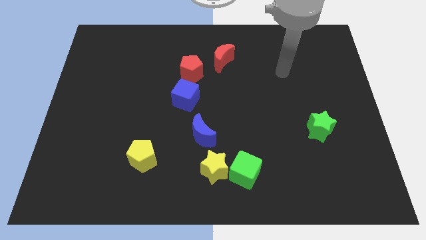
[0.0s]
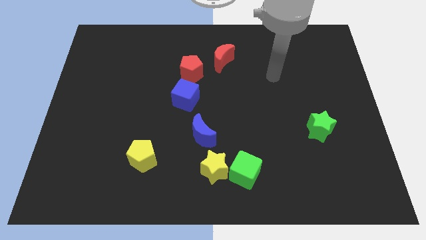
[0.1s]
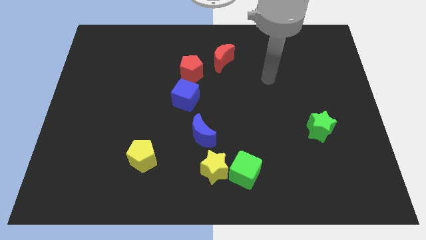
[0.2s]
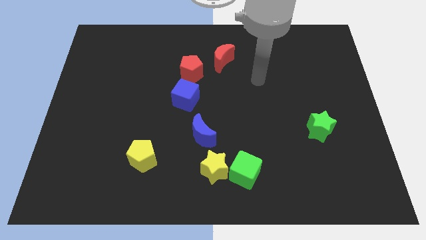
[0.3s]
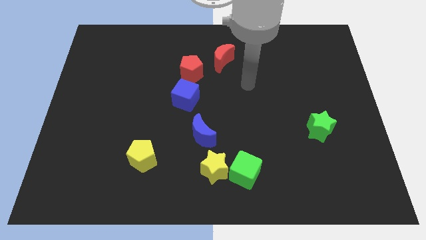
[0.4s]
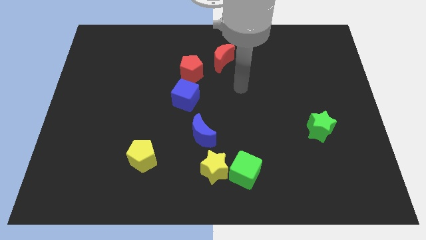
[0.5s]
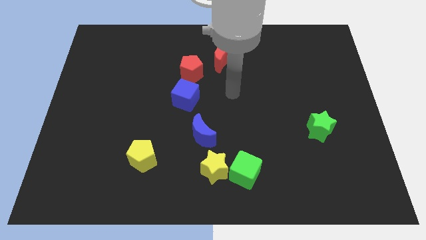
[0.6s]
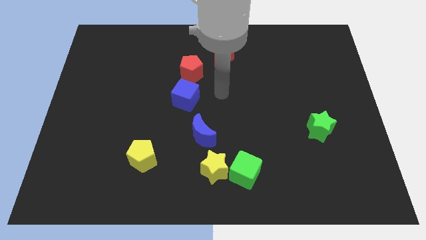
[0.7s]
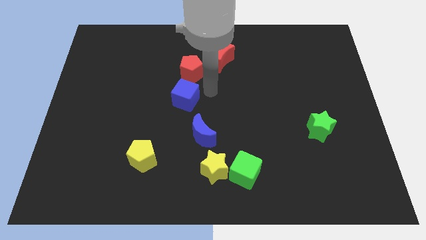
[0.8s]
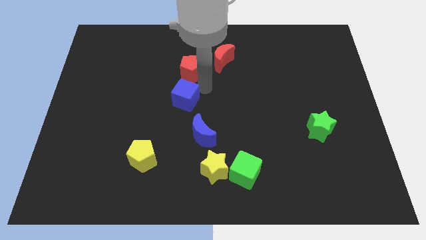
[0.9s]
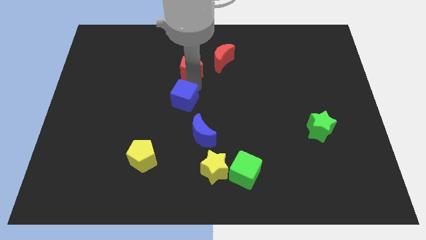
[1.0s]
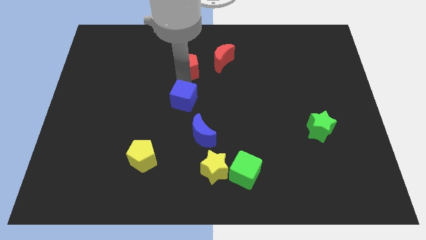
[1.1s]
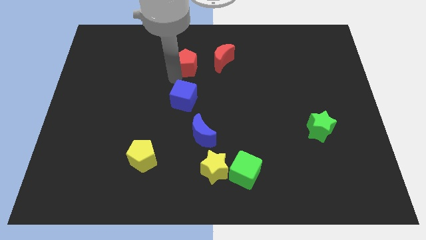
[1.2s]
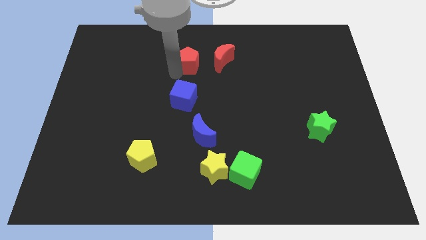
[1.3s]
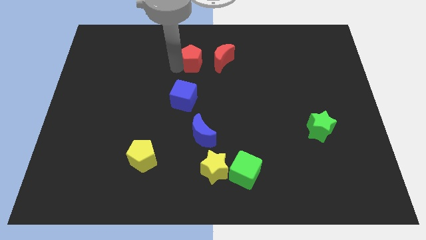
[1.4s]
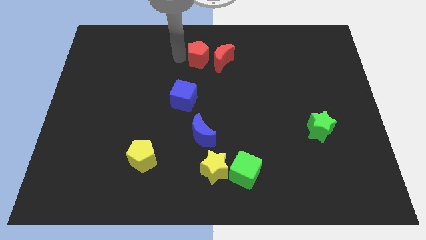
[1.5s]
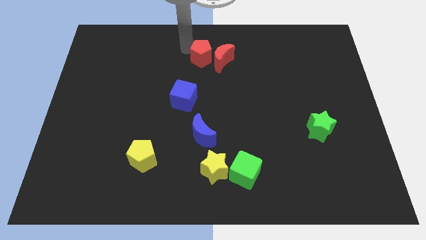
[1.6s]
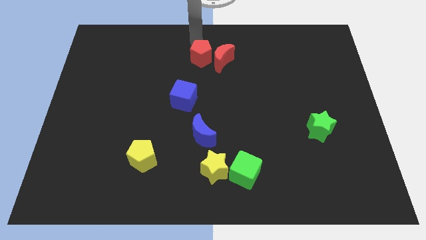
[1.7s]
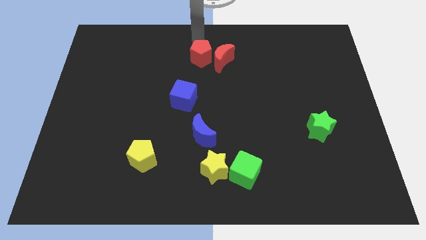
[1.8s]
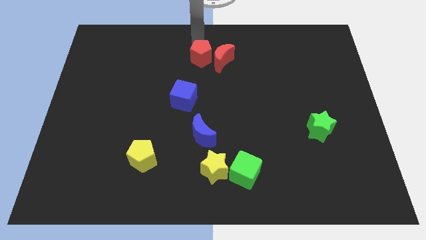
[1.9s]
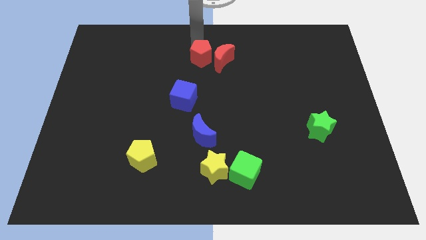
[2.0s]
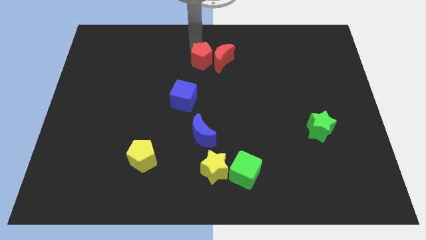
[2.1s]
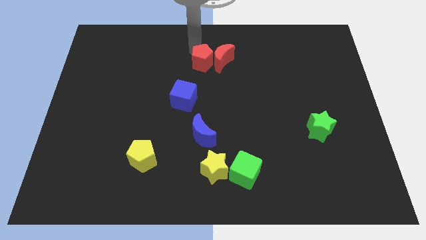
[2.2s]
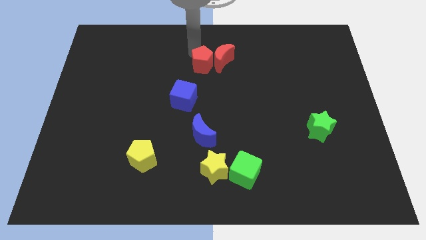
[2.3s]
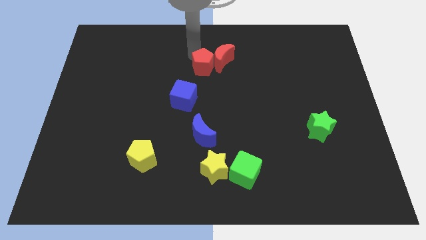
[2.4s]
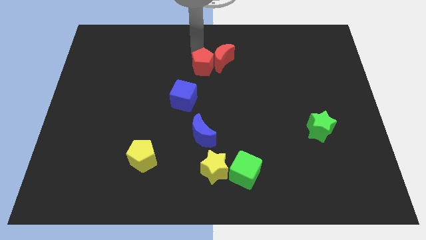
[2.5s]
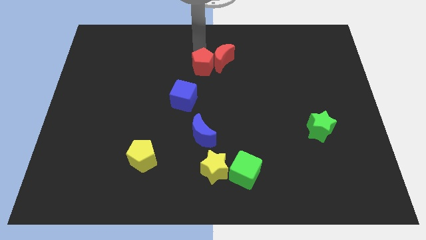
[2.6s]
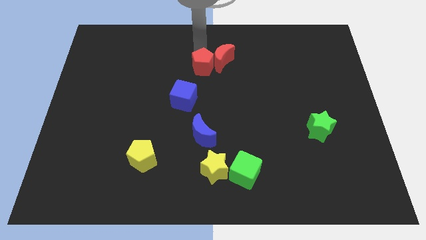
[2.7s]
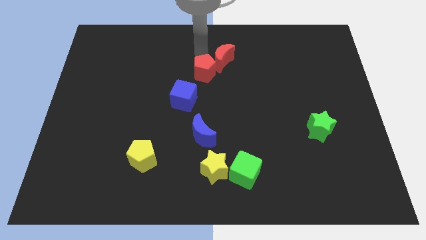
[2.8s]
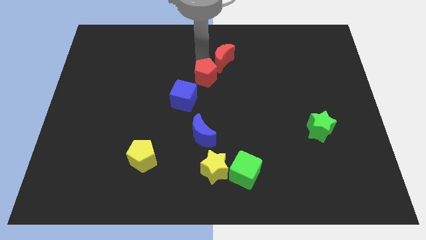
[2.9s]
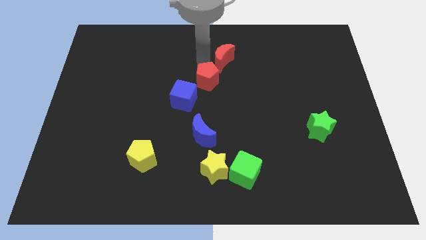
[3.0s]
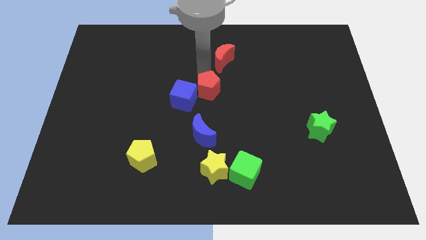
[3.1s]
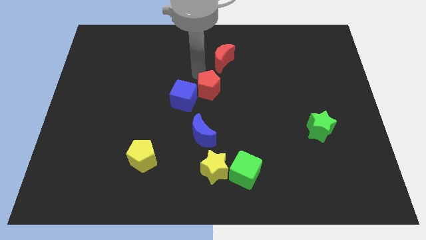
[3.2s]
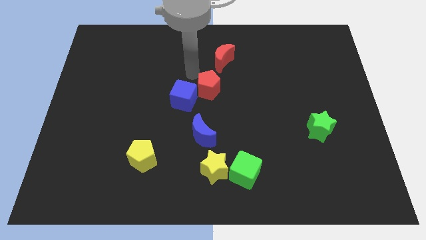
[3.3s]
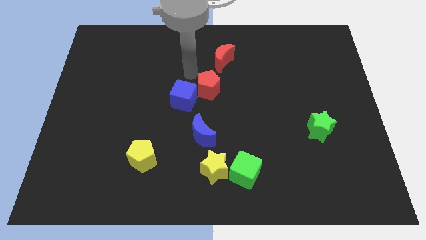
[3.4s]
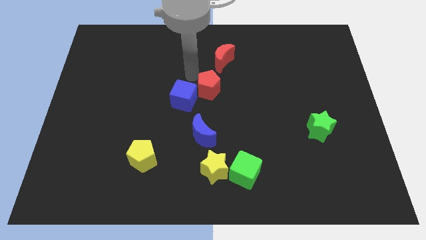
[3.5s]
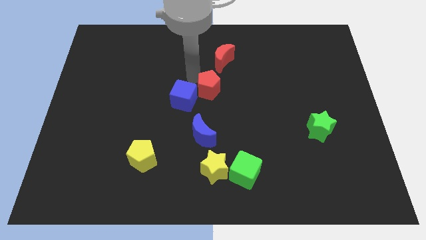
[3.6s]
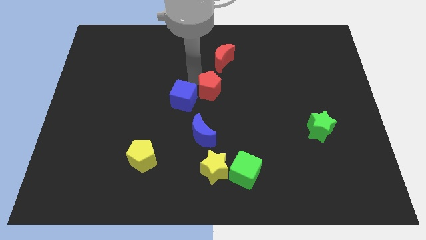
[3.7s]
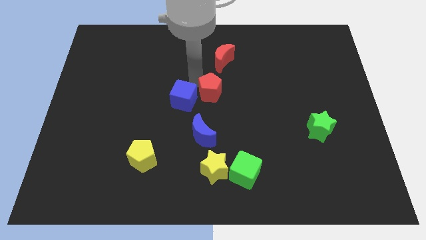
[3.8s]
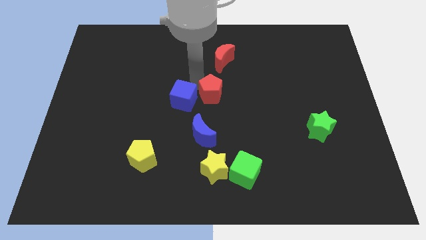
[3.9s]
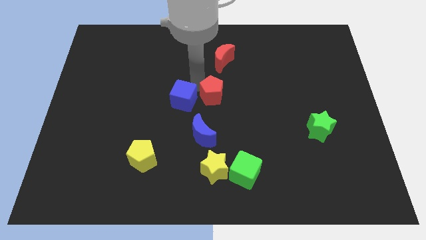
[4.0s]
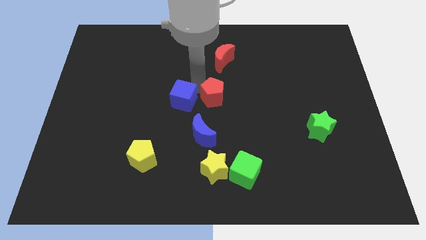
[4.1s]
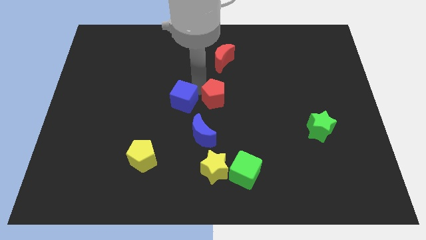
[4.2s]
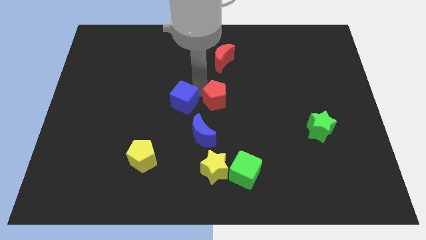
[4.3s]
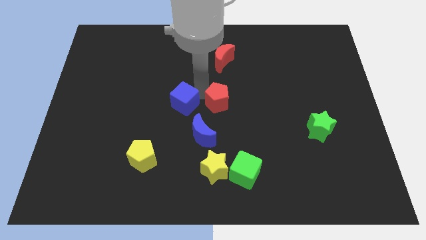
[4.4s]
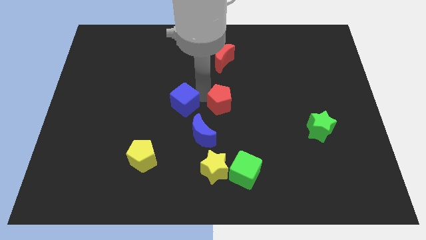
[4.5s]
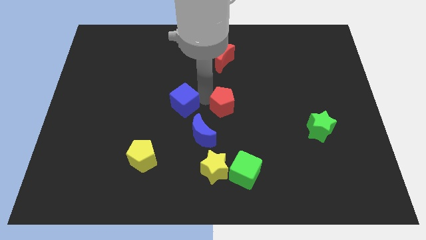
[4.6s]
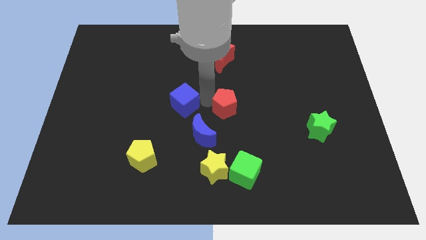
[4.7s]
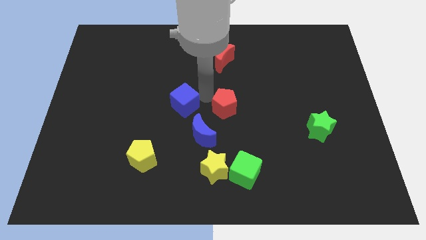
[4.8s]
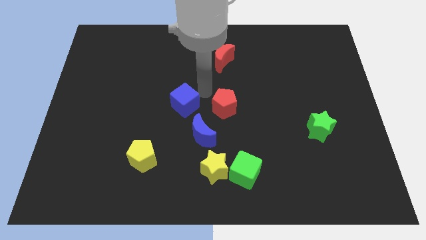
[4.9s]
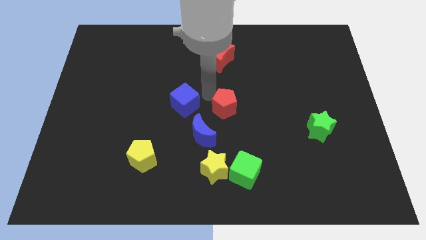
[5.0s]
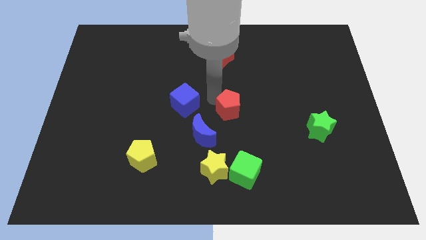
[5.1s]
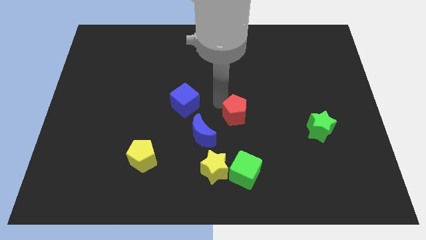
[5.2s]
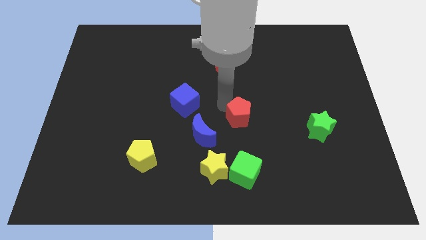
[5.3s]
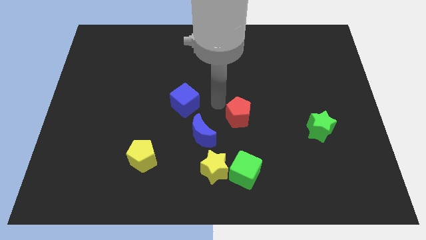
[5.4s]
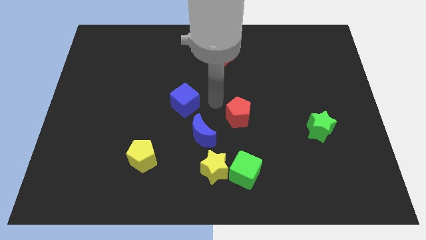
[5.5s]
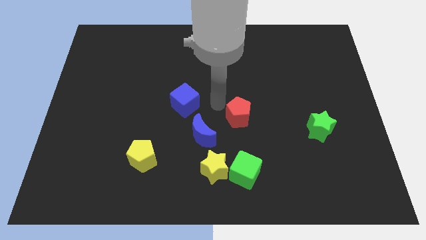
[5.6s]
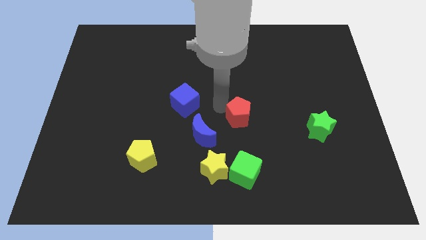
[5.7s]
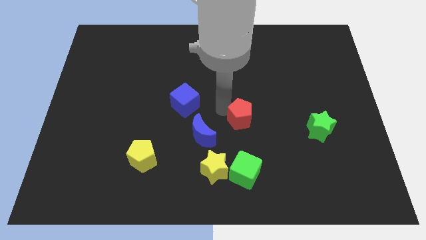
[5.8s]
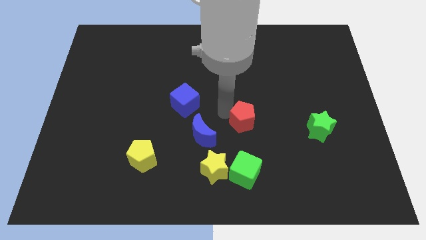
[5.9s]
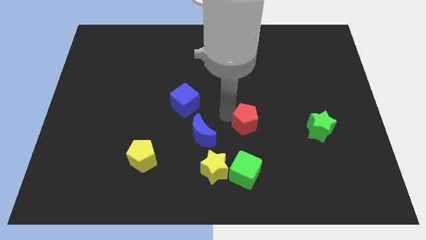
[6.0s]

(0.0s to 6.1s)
push the red pentagon down and to the right diagonally

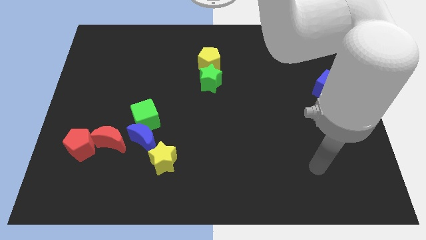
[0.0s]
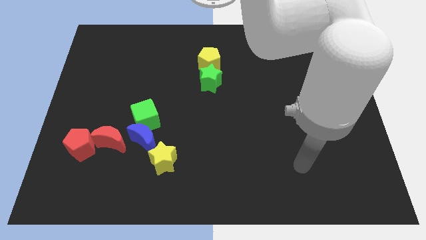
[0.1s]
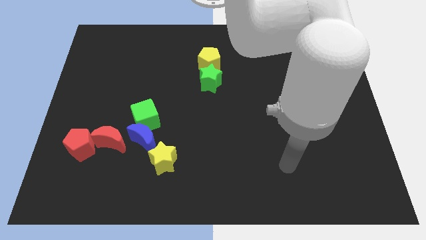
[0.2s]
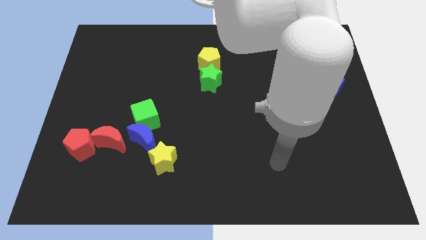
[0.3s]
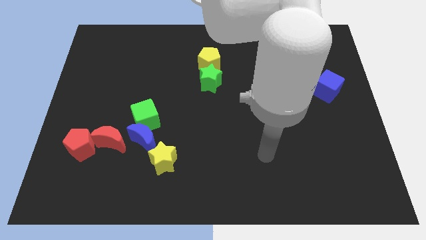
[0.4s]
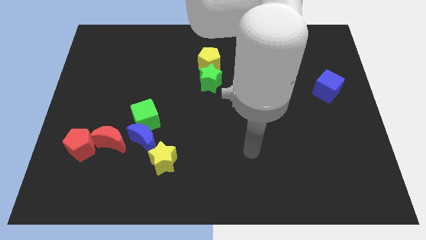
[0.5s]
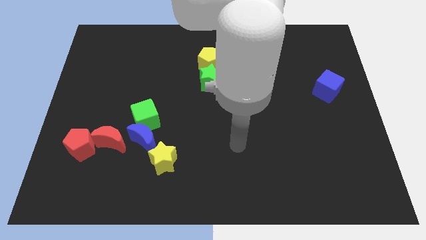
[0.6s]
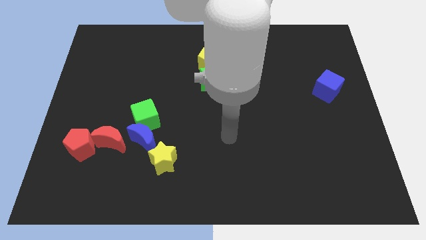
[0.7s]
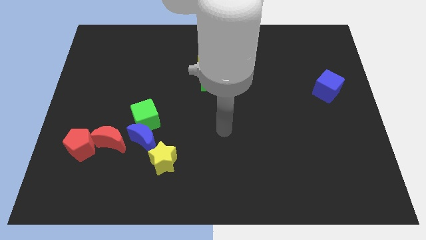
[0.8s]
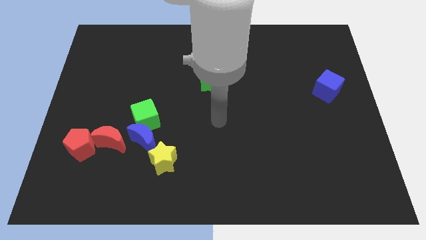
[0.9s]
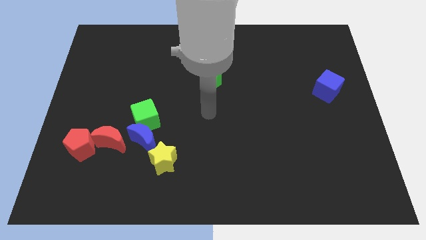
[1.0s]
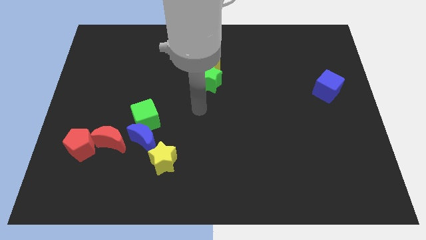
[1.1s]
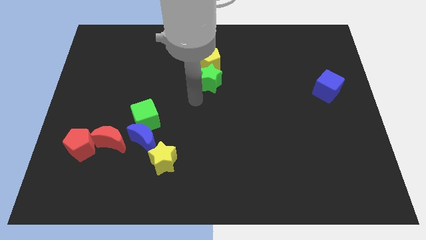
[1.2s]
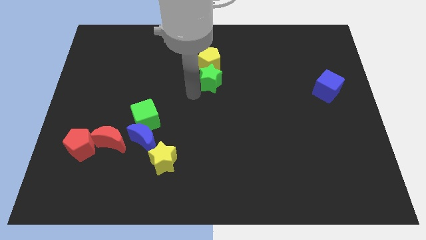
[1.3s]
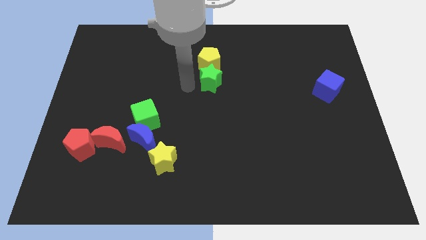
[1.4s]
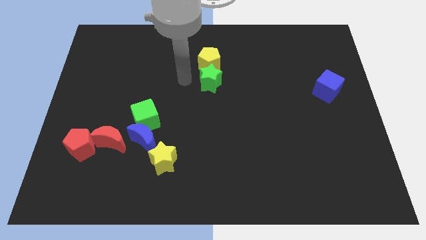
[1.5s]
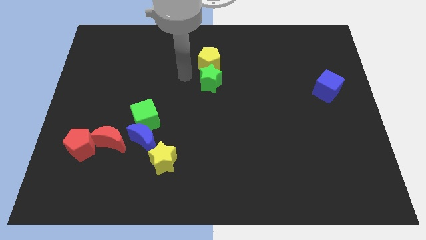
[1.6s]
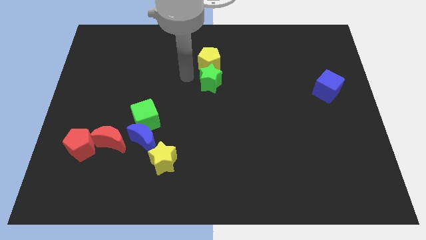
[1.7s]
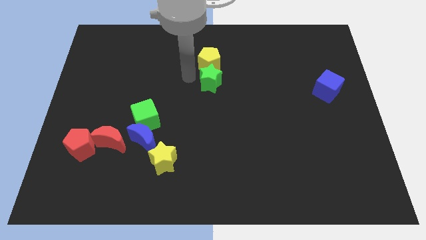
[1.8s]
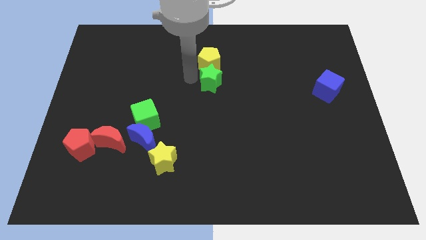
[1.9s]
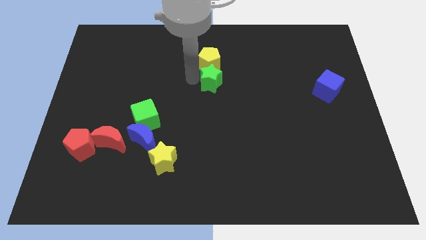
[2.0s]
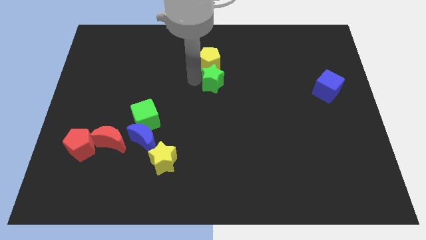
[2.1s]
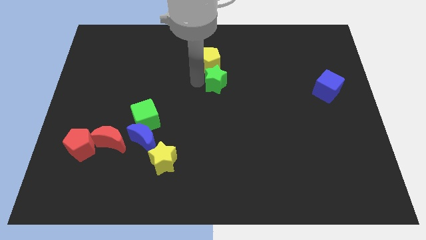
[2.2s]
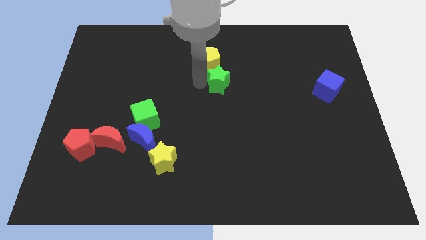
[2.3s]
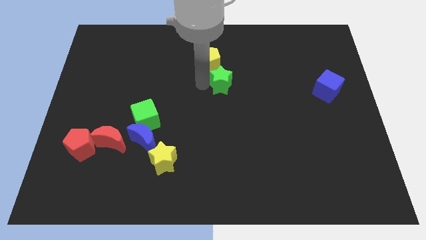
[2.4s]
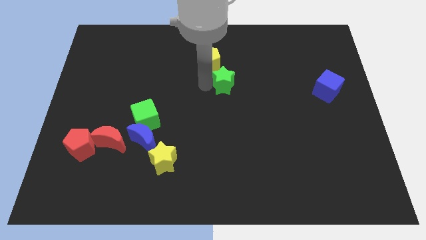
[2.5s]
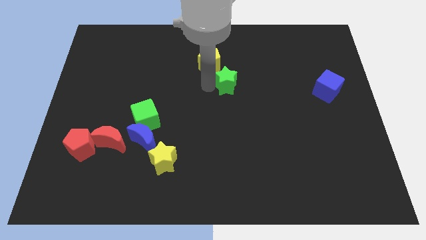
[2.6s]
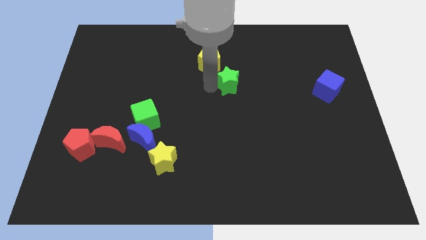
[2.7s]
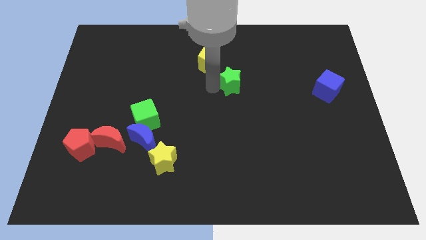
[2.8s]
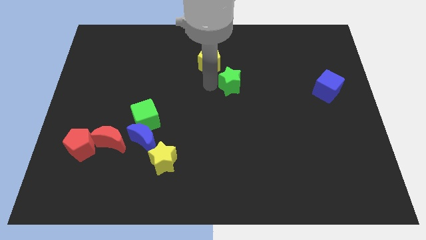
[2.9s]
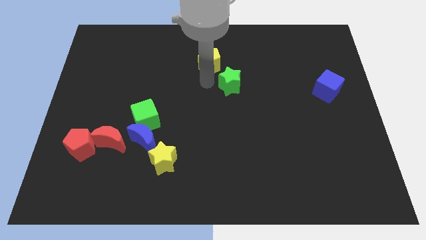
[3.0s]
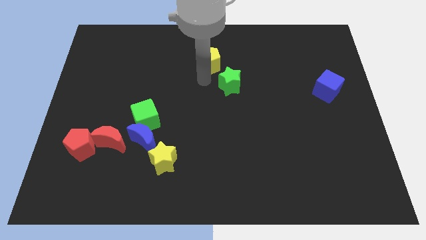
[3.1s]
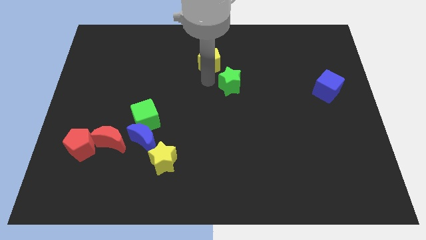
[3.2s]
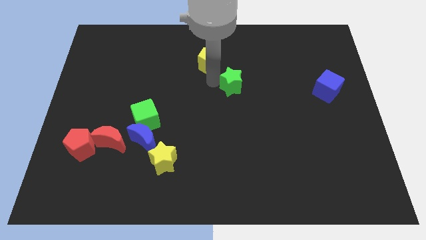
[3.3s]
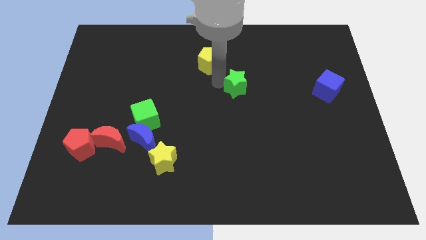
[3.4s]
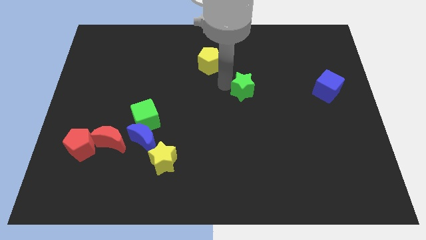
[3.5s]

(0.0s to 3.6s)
slide the green star a bit to the right
